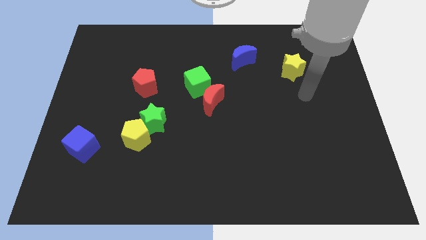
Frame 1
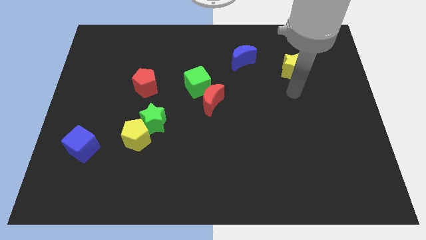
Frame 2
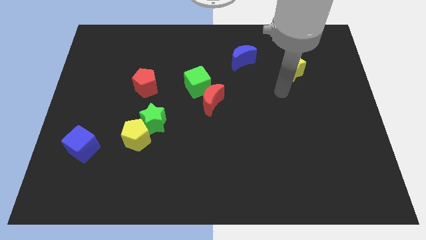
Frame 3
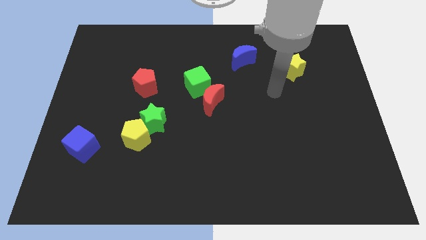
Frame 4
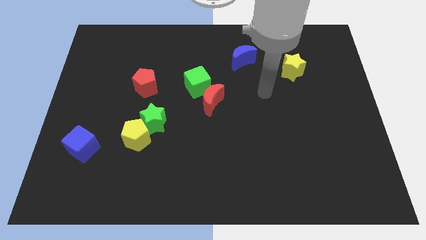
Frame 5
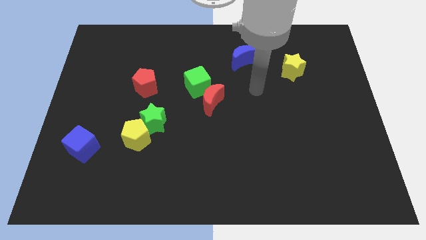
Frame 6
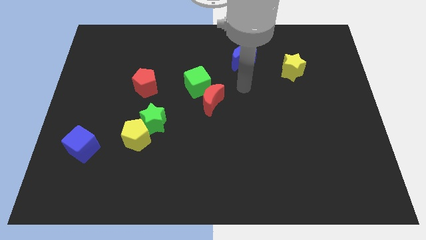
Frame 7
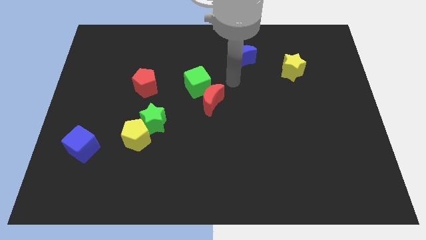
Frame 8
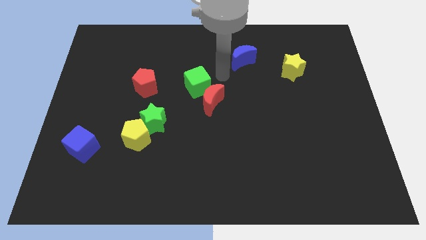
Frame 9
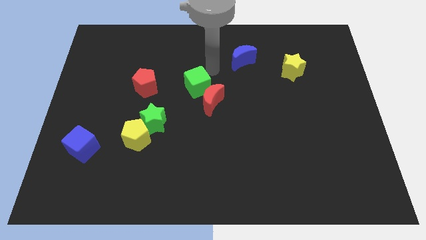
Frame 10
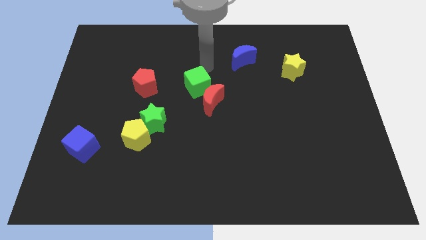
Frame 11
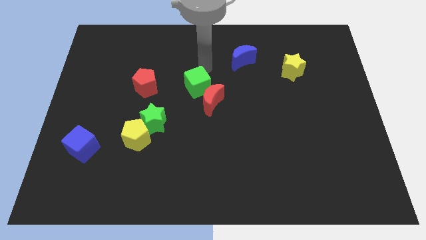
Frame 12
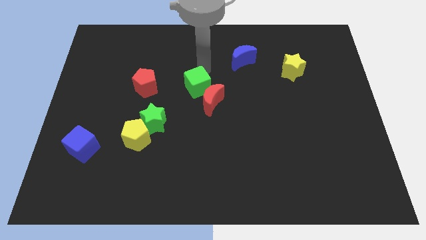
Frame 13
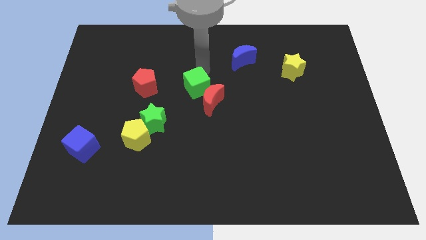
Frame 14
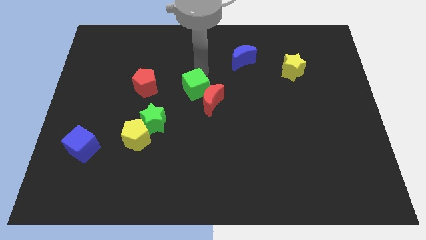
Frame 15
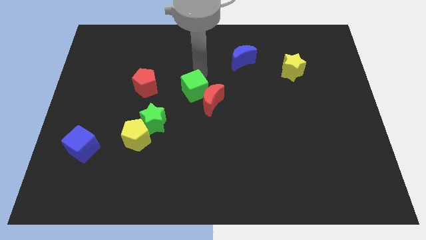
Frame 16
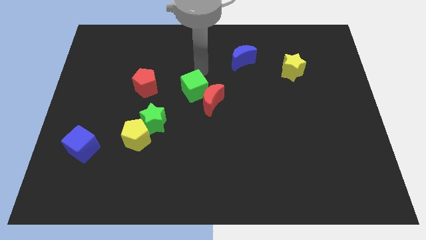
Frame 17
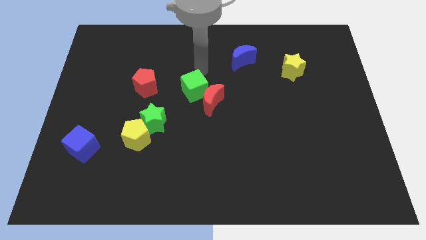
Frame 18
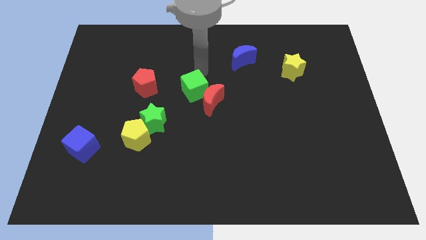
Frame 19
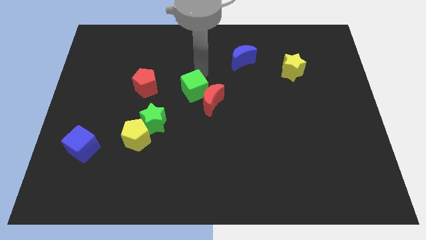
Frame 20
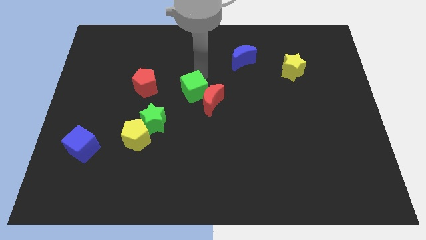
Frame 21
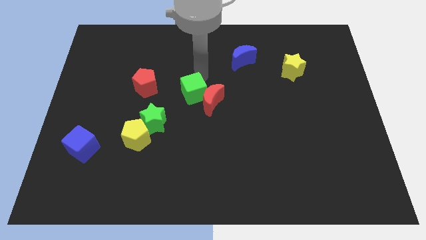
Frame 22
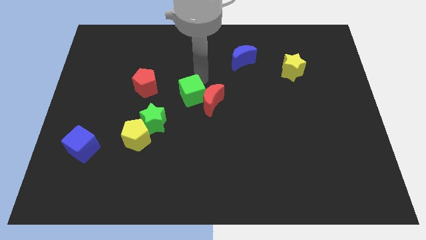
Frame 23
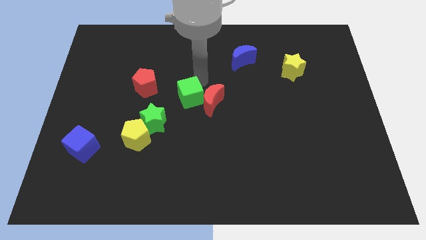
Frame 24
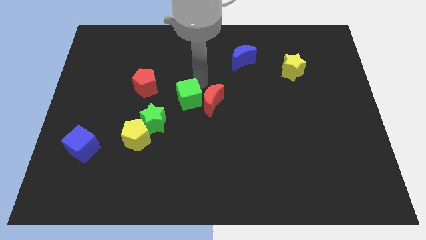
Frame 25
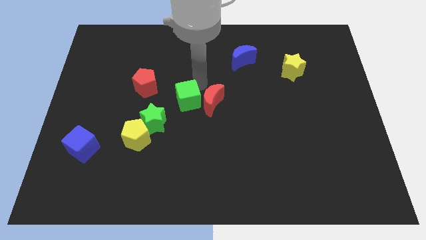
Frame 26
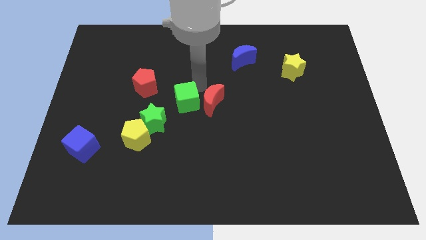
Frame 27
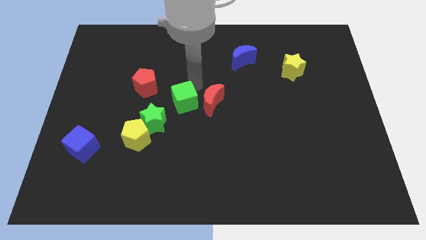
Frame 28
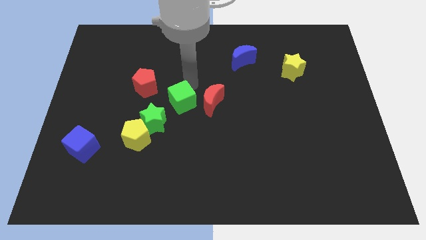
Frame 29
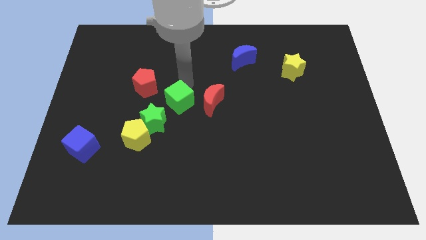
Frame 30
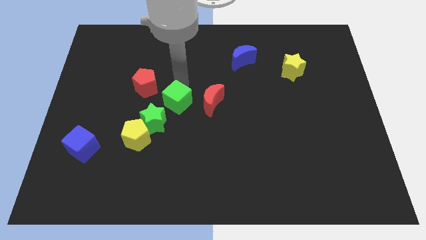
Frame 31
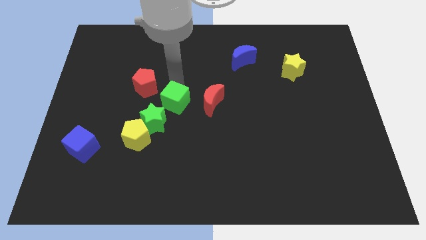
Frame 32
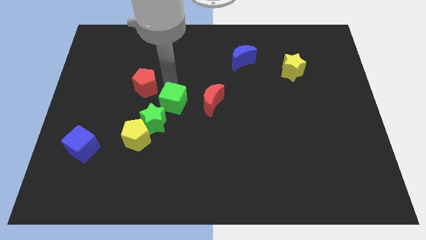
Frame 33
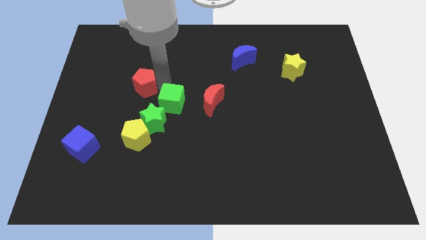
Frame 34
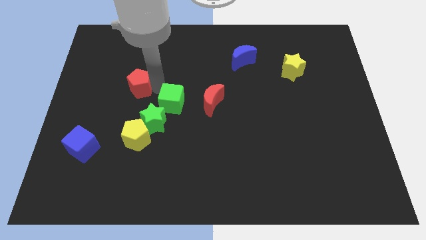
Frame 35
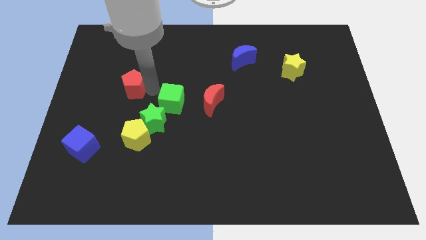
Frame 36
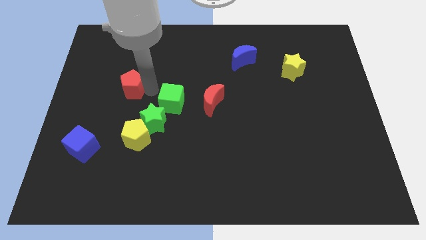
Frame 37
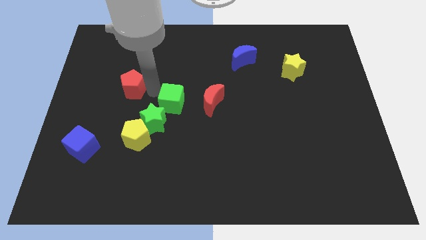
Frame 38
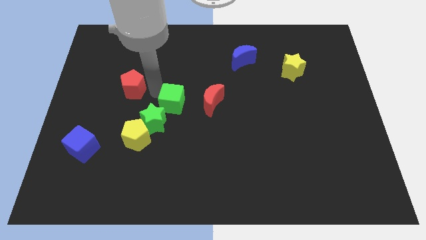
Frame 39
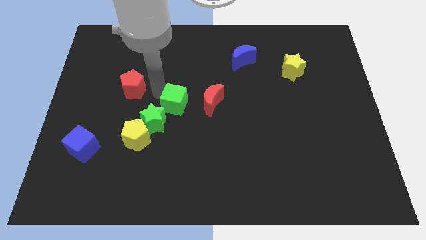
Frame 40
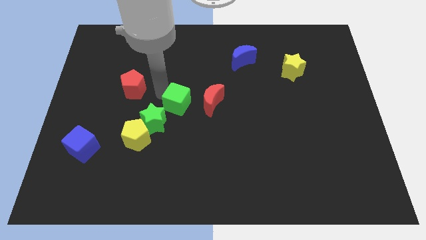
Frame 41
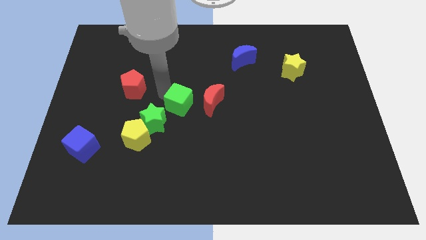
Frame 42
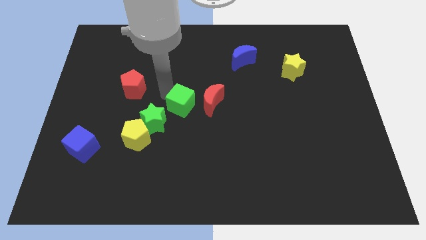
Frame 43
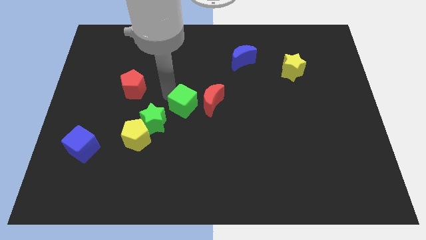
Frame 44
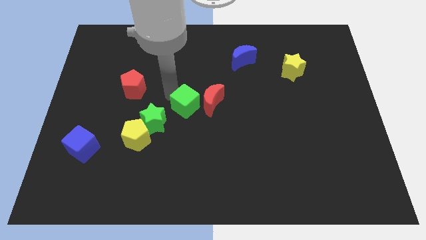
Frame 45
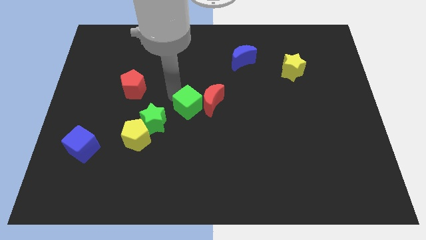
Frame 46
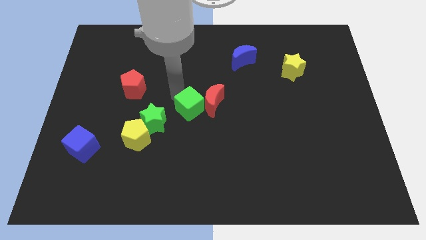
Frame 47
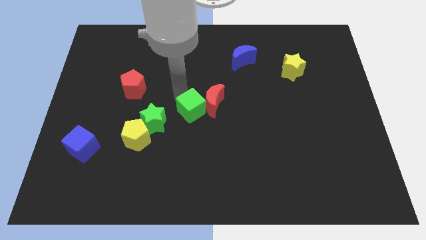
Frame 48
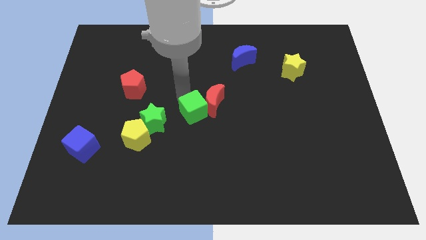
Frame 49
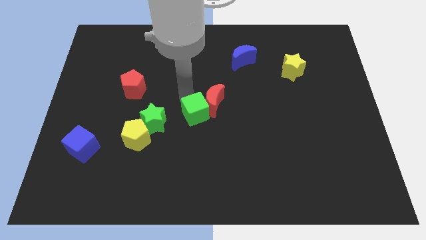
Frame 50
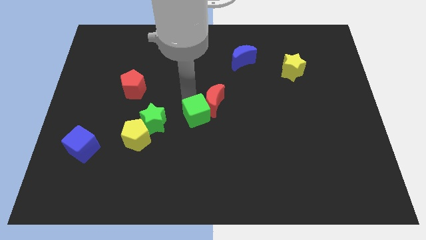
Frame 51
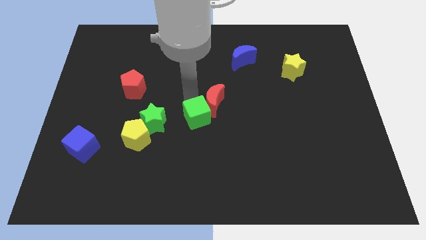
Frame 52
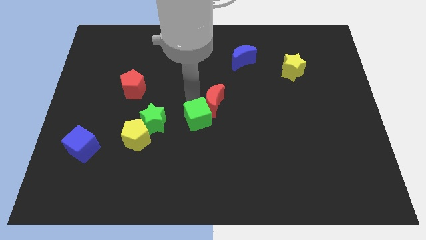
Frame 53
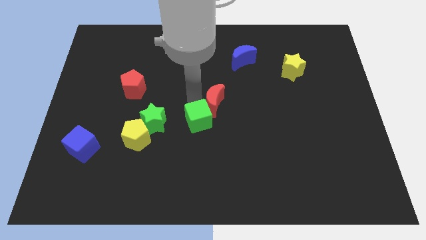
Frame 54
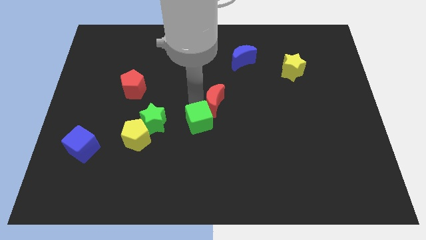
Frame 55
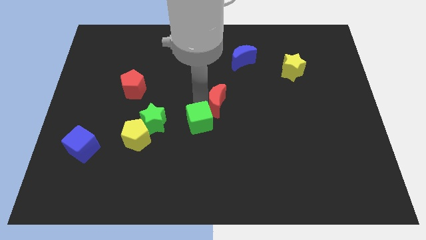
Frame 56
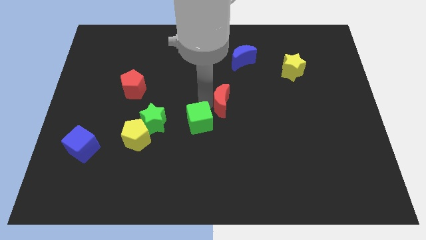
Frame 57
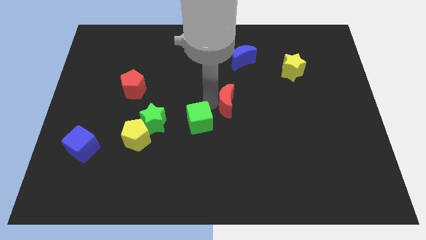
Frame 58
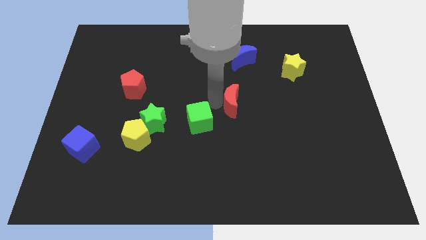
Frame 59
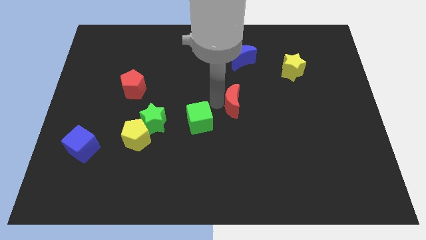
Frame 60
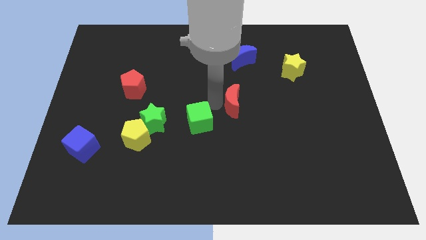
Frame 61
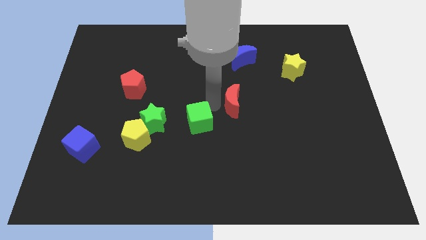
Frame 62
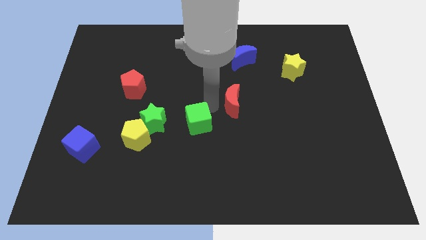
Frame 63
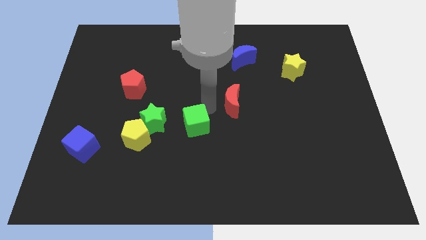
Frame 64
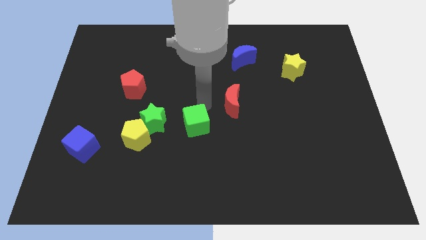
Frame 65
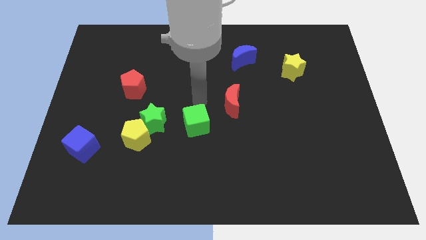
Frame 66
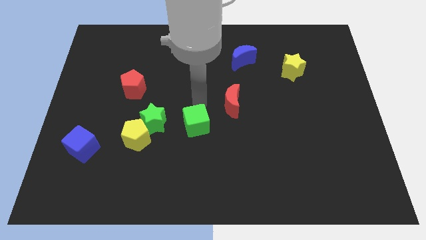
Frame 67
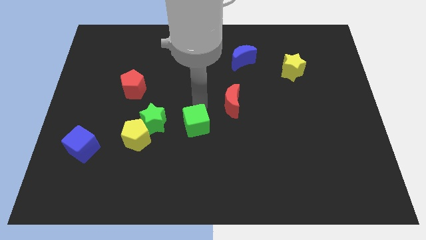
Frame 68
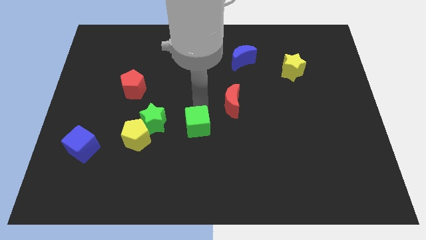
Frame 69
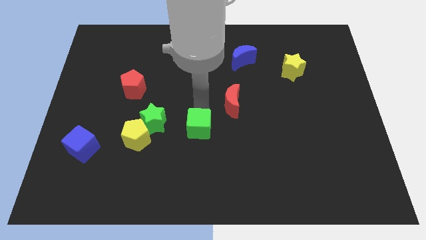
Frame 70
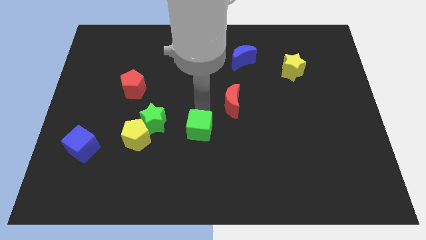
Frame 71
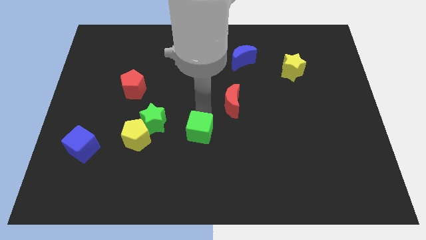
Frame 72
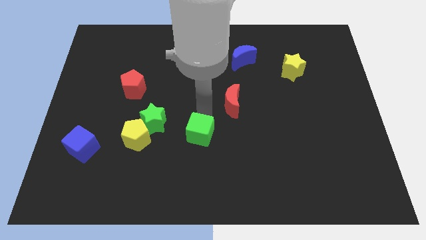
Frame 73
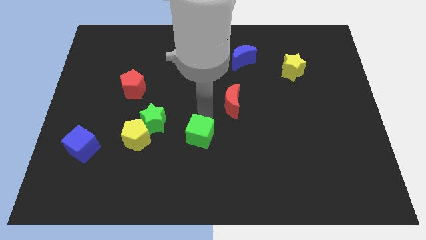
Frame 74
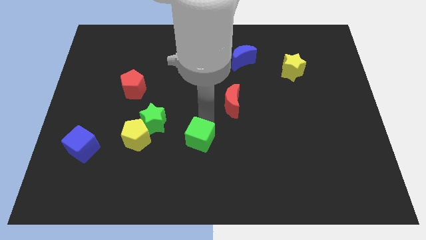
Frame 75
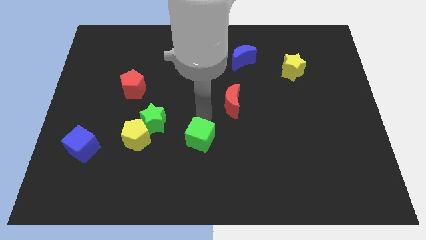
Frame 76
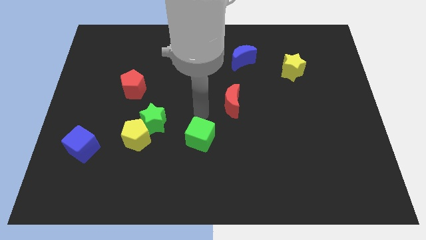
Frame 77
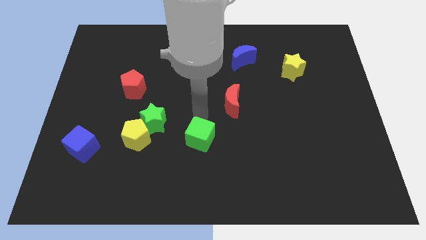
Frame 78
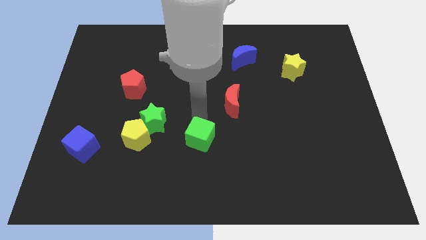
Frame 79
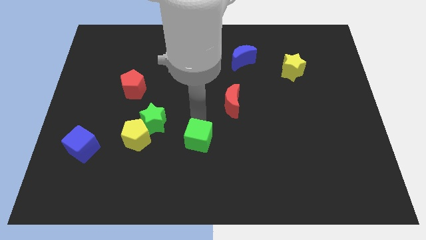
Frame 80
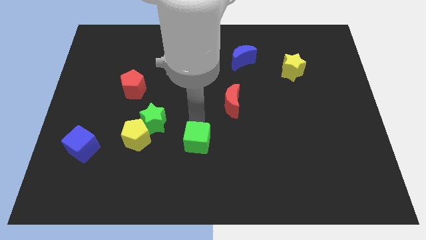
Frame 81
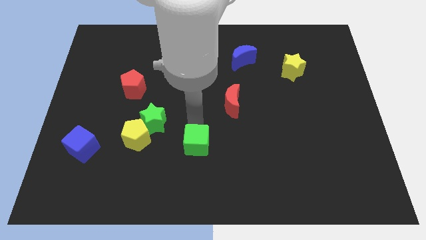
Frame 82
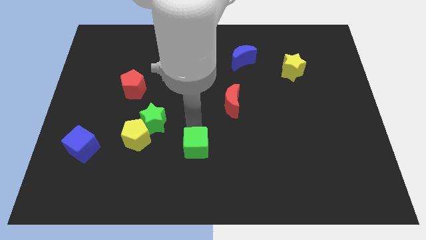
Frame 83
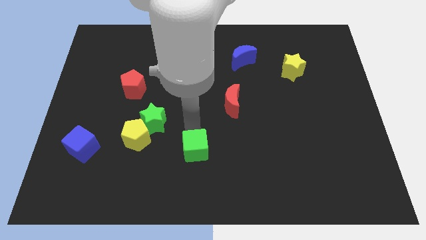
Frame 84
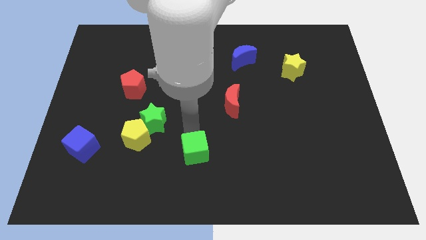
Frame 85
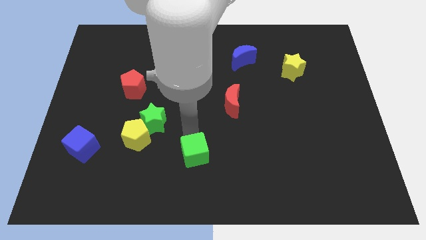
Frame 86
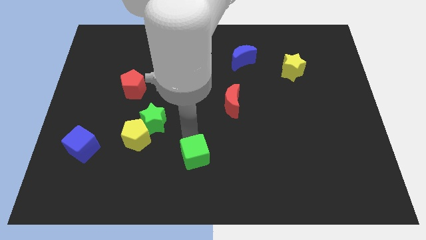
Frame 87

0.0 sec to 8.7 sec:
put the green cube to the bottom
